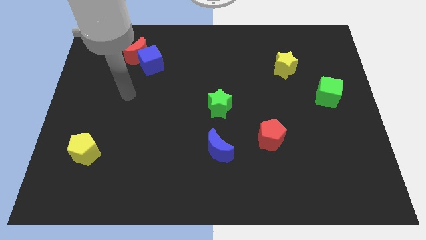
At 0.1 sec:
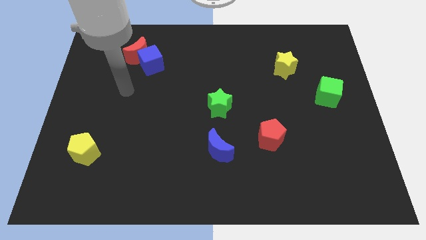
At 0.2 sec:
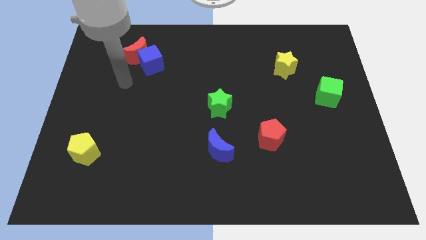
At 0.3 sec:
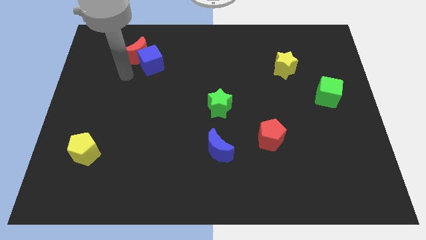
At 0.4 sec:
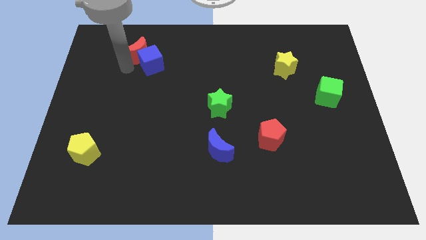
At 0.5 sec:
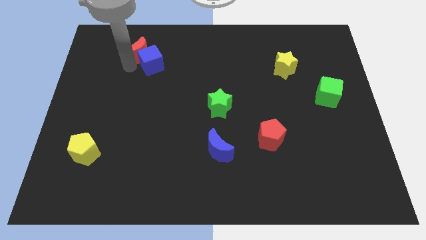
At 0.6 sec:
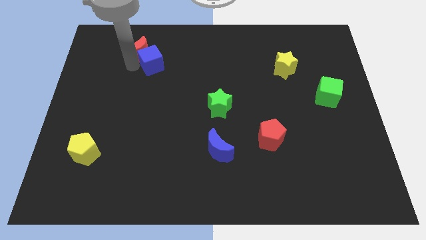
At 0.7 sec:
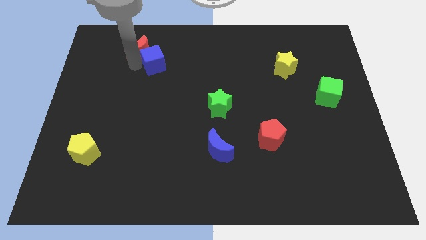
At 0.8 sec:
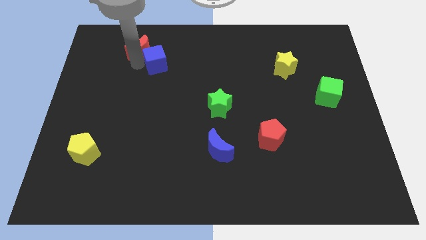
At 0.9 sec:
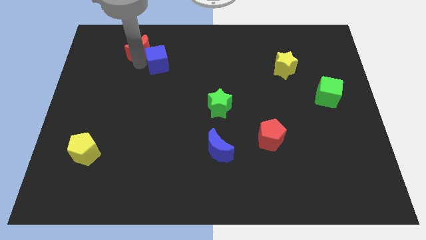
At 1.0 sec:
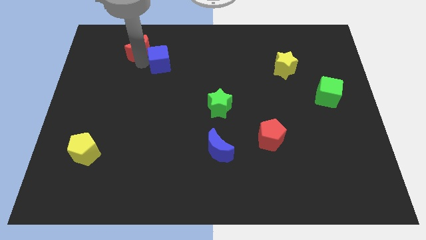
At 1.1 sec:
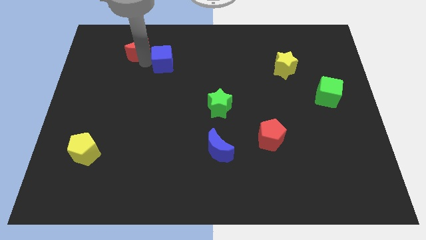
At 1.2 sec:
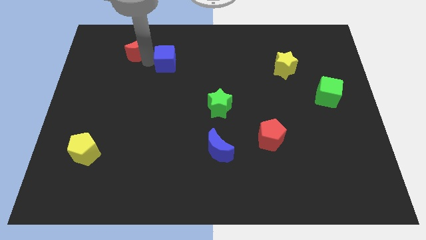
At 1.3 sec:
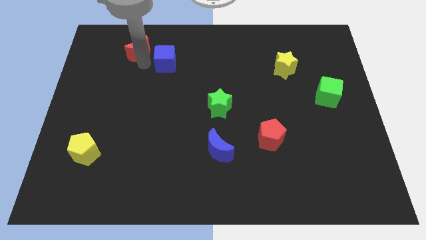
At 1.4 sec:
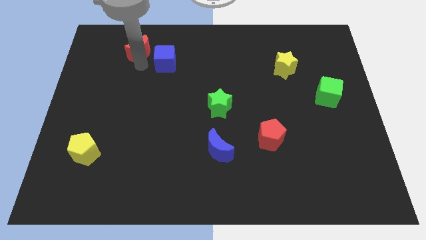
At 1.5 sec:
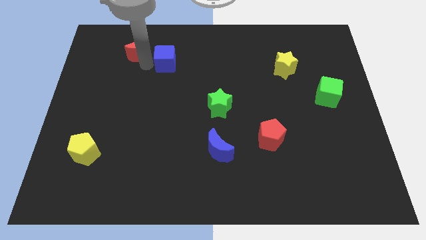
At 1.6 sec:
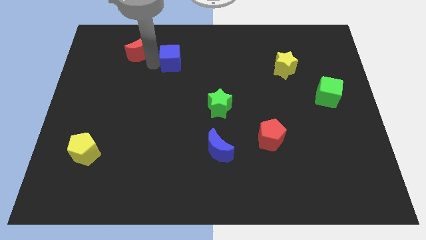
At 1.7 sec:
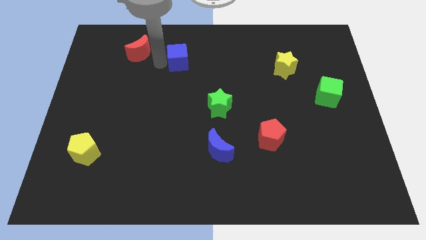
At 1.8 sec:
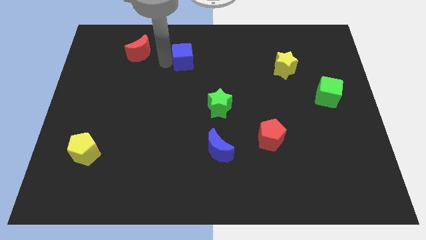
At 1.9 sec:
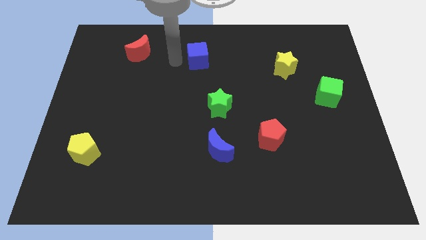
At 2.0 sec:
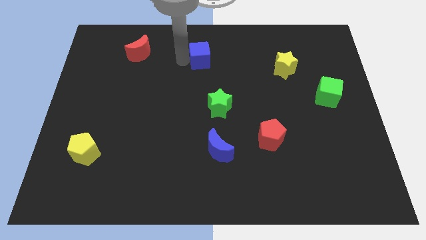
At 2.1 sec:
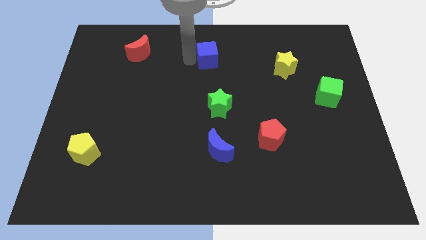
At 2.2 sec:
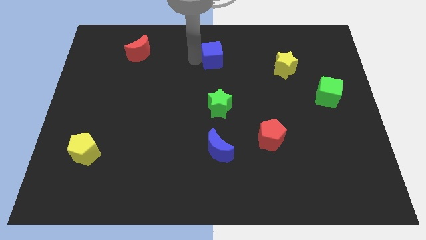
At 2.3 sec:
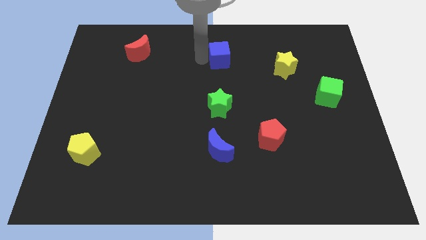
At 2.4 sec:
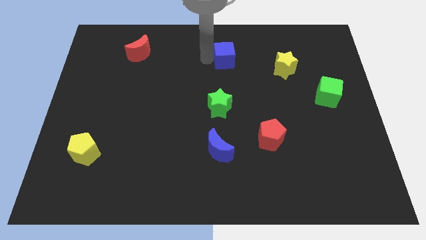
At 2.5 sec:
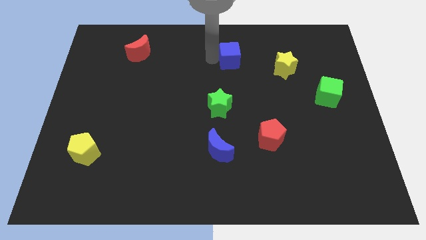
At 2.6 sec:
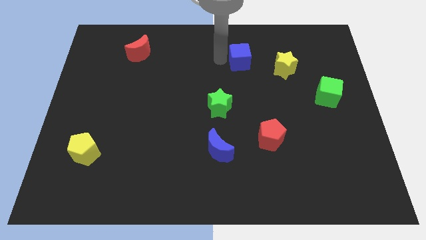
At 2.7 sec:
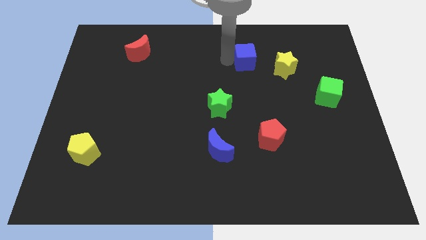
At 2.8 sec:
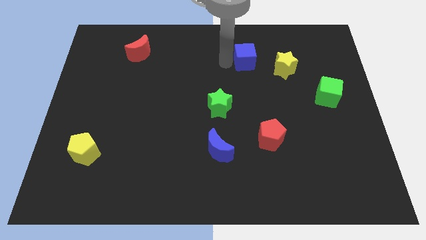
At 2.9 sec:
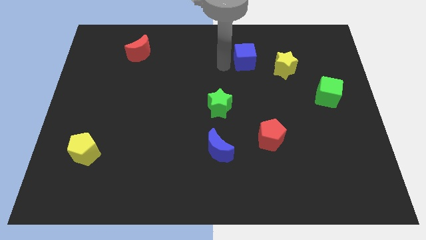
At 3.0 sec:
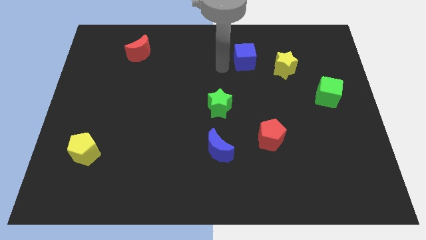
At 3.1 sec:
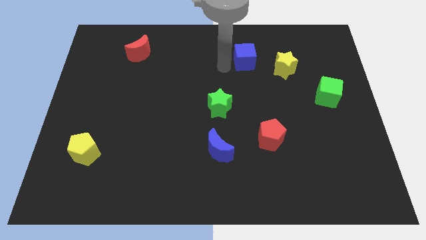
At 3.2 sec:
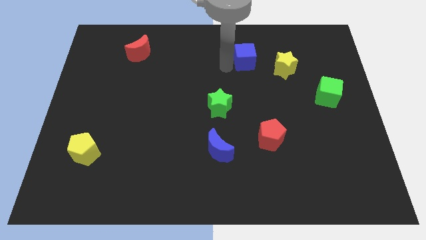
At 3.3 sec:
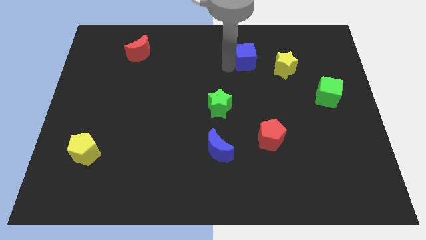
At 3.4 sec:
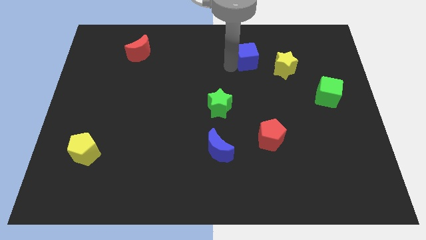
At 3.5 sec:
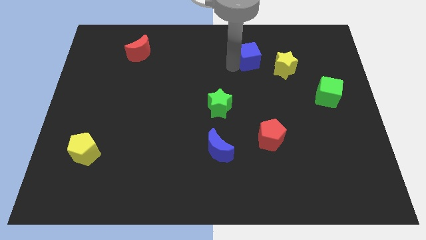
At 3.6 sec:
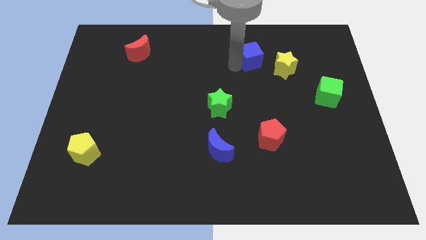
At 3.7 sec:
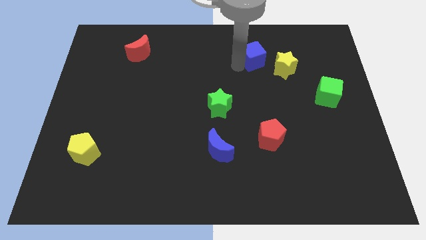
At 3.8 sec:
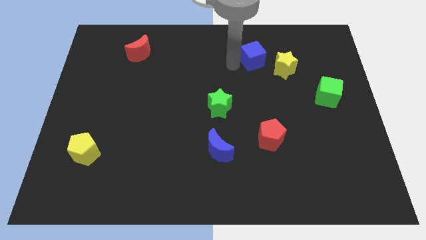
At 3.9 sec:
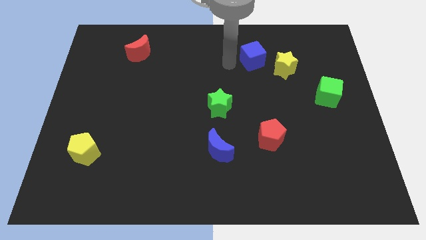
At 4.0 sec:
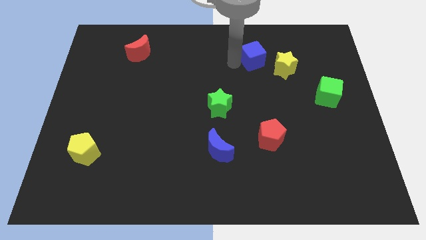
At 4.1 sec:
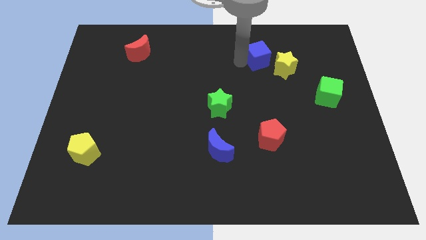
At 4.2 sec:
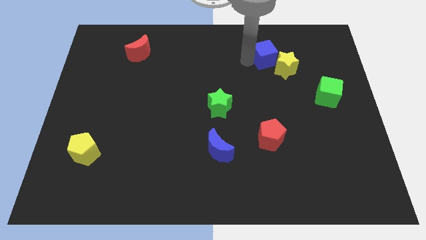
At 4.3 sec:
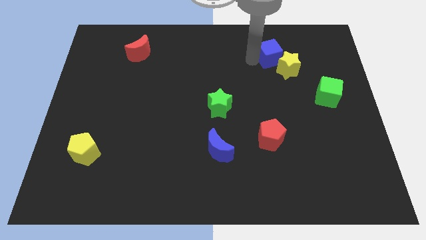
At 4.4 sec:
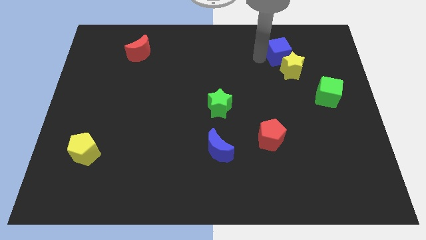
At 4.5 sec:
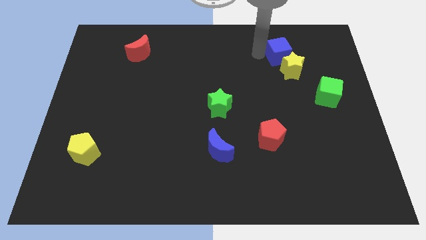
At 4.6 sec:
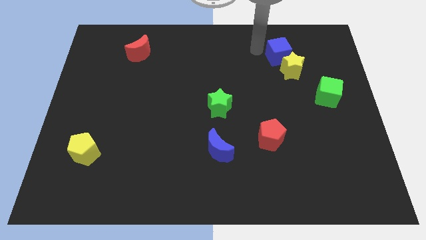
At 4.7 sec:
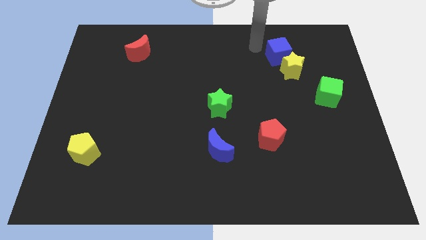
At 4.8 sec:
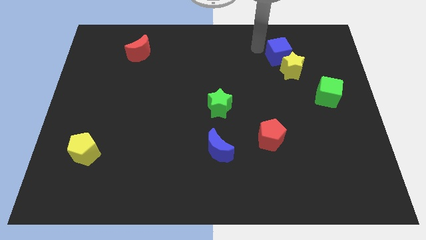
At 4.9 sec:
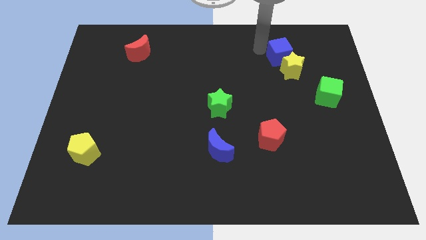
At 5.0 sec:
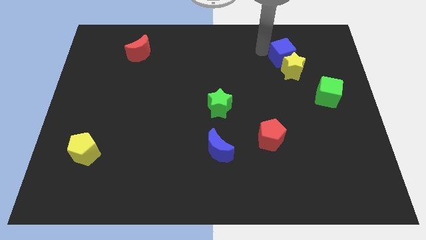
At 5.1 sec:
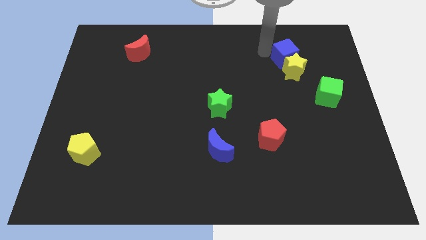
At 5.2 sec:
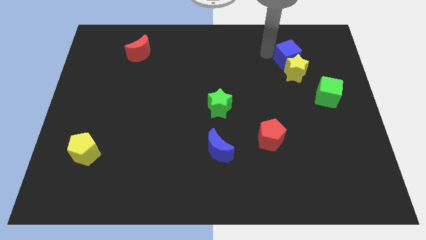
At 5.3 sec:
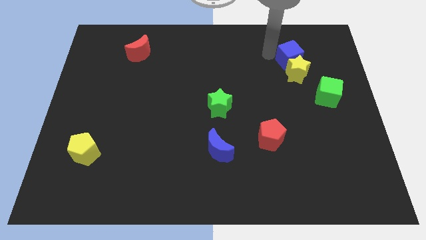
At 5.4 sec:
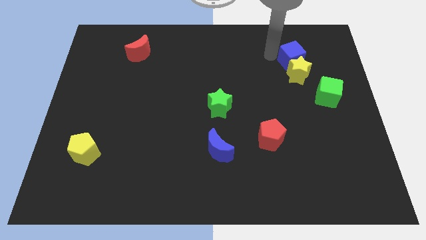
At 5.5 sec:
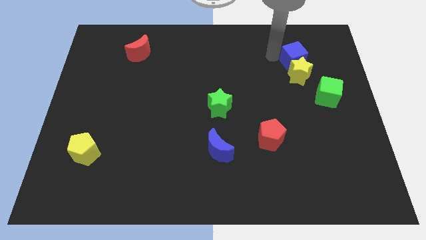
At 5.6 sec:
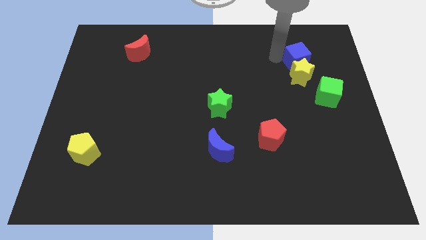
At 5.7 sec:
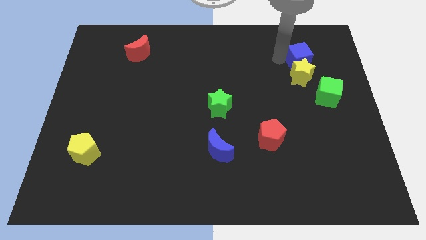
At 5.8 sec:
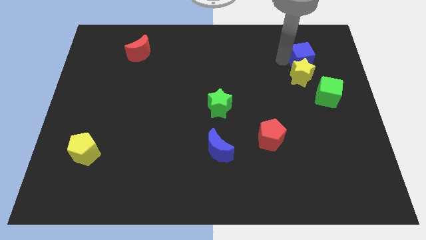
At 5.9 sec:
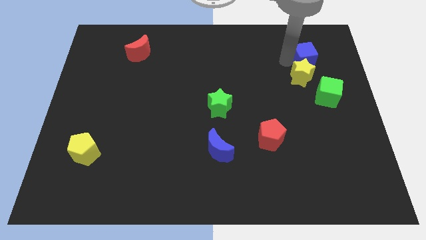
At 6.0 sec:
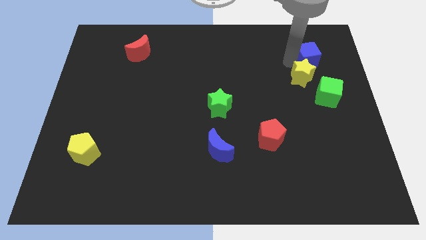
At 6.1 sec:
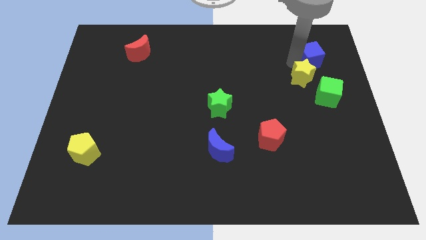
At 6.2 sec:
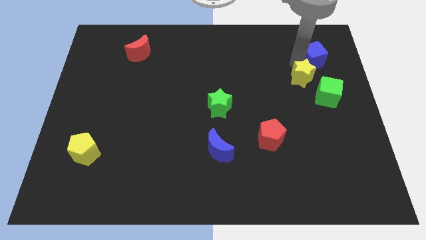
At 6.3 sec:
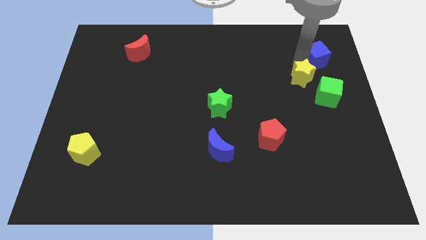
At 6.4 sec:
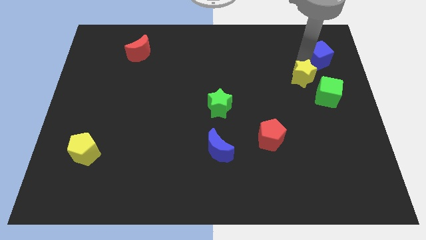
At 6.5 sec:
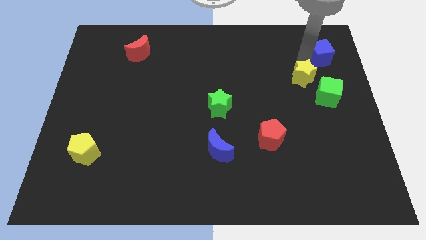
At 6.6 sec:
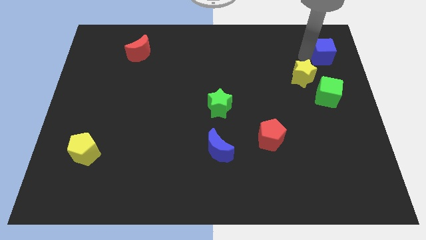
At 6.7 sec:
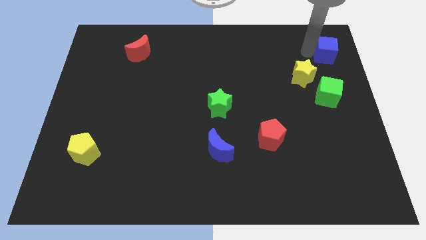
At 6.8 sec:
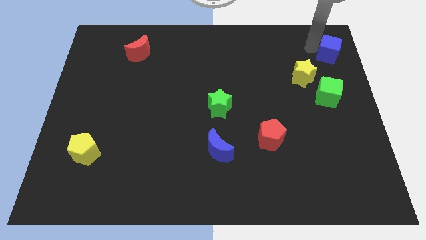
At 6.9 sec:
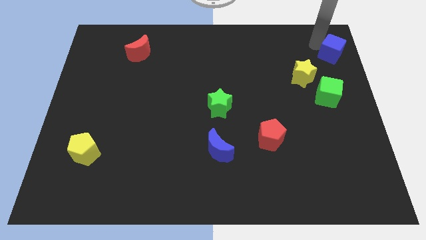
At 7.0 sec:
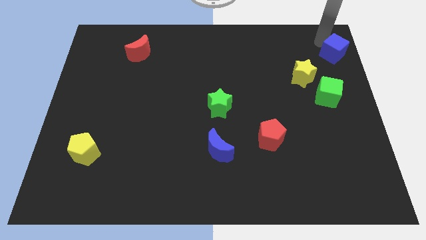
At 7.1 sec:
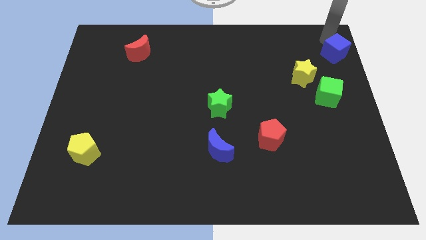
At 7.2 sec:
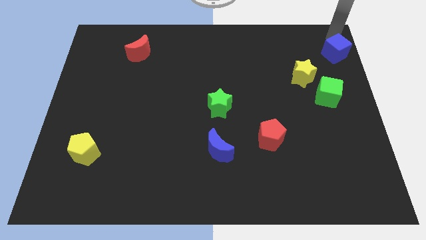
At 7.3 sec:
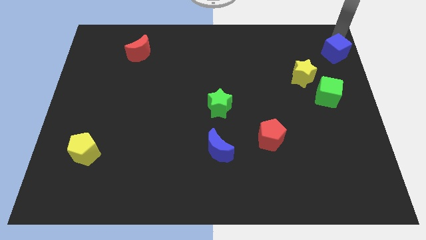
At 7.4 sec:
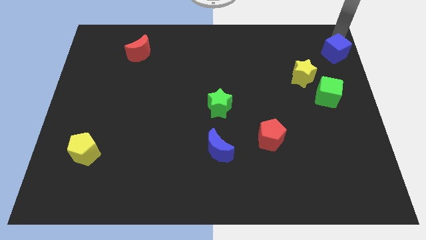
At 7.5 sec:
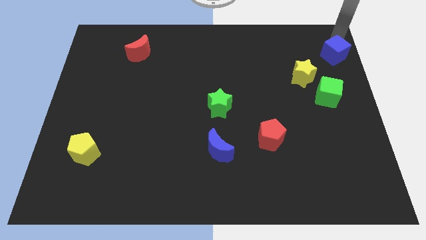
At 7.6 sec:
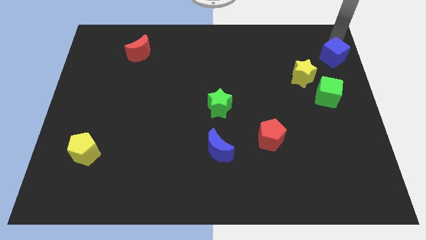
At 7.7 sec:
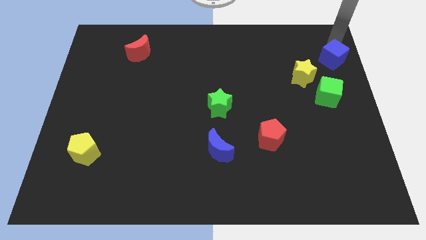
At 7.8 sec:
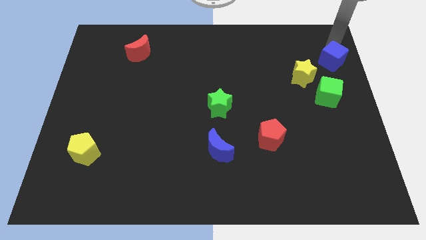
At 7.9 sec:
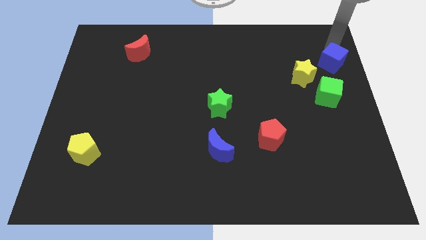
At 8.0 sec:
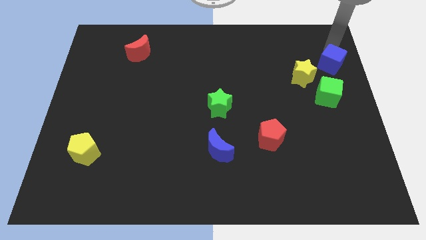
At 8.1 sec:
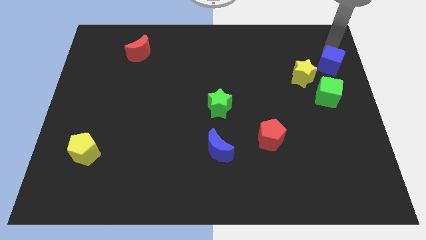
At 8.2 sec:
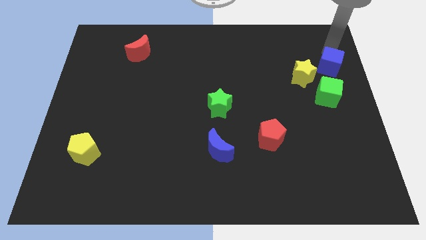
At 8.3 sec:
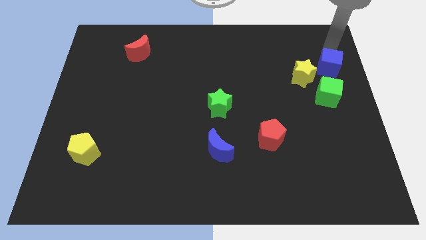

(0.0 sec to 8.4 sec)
put the blue cube to the right side
